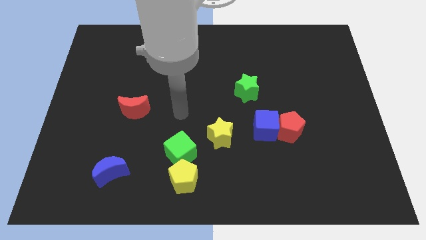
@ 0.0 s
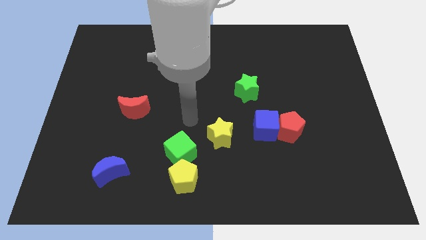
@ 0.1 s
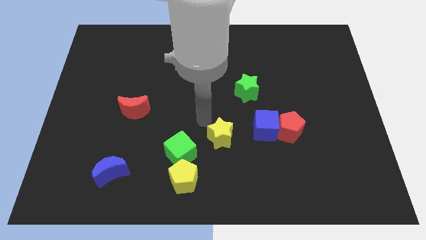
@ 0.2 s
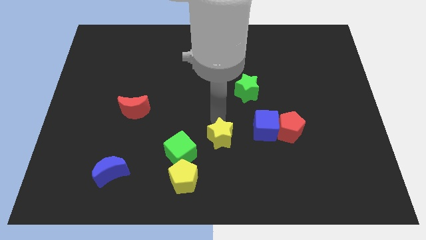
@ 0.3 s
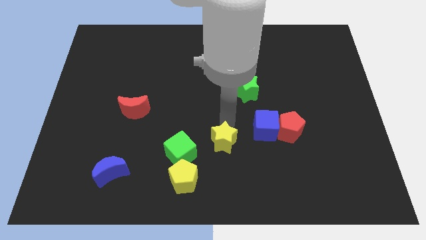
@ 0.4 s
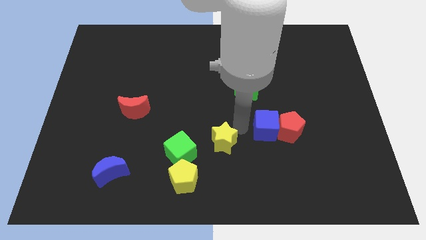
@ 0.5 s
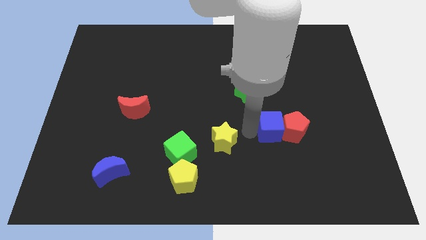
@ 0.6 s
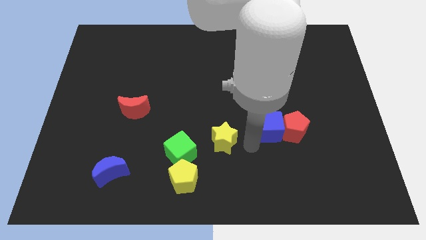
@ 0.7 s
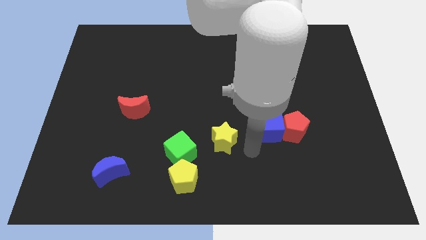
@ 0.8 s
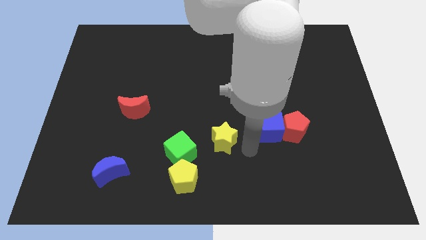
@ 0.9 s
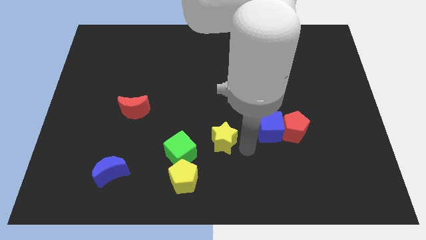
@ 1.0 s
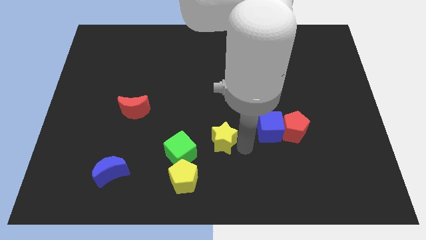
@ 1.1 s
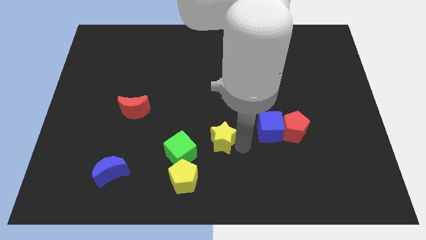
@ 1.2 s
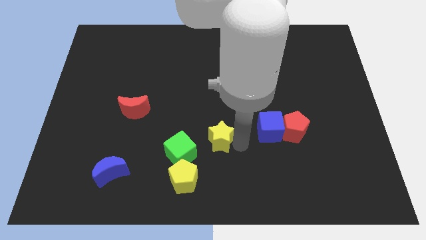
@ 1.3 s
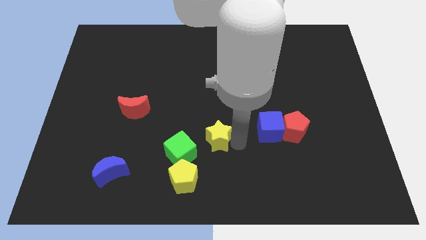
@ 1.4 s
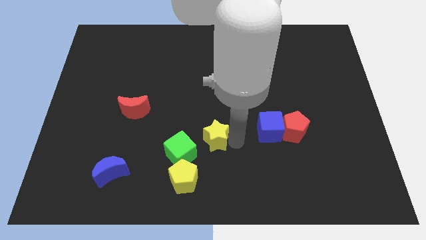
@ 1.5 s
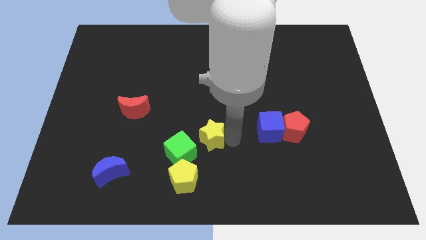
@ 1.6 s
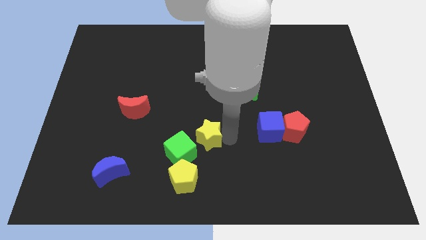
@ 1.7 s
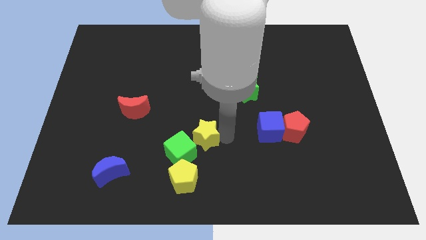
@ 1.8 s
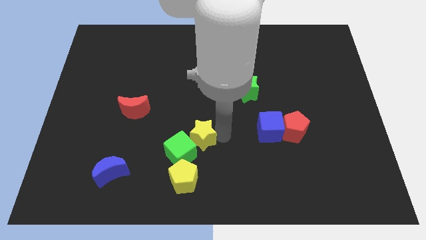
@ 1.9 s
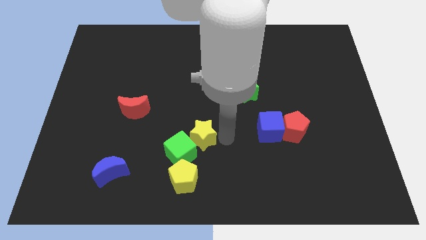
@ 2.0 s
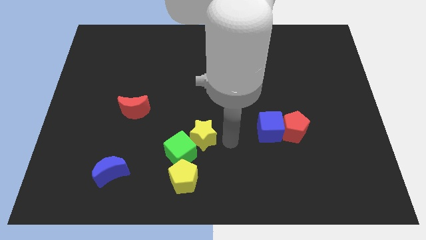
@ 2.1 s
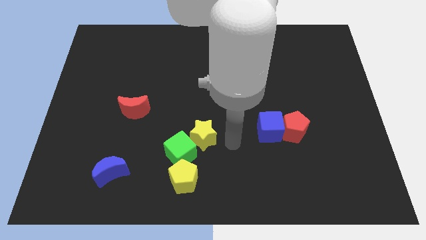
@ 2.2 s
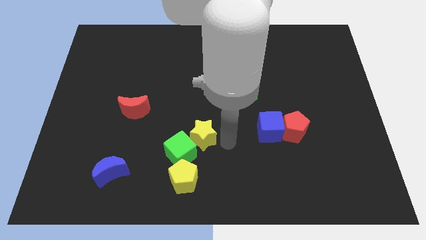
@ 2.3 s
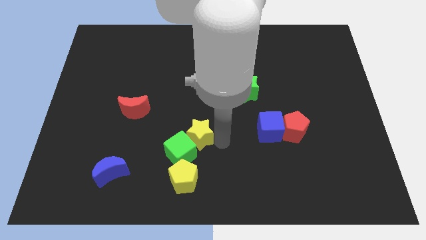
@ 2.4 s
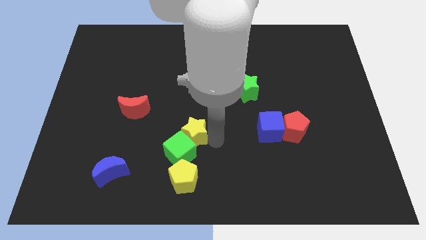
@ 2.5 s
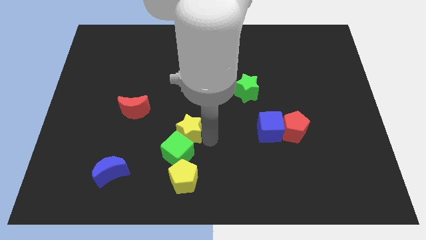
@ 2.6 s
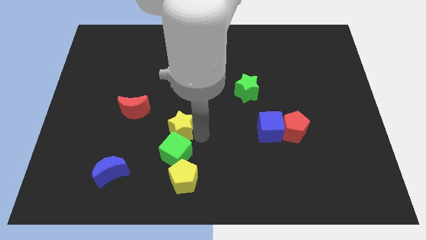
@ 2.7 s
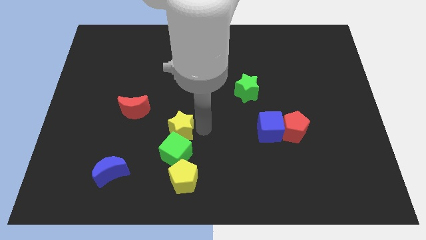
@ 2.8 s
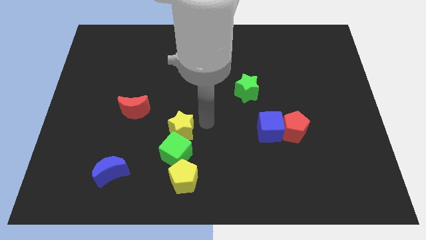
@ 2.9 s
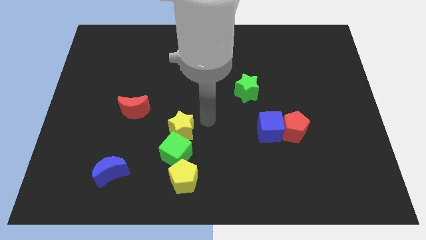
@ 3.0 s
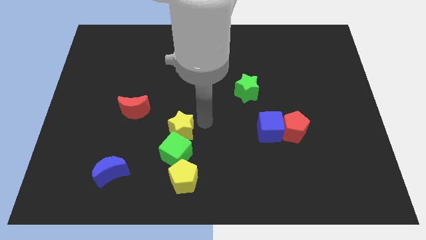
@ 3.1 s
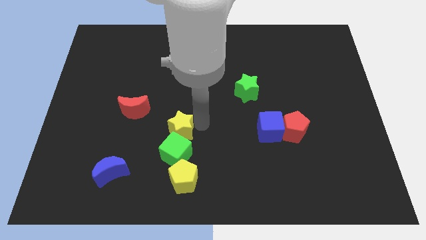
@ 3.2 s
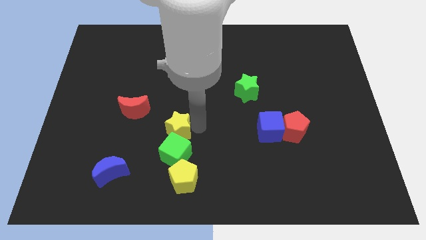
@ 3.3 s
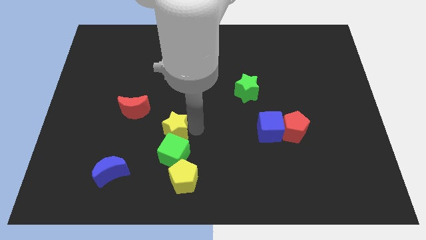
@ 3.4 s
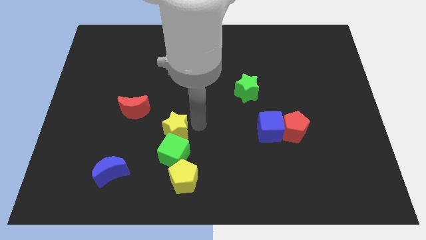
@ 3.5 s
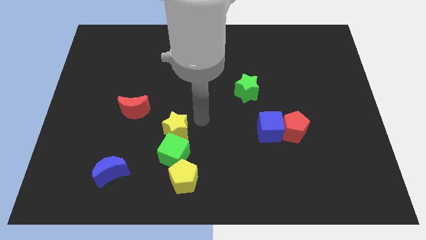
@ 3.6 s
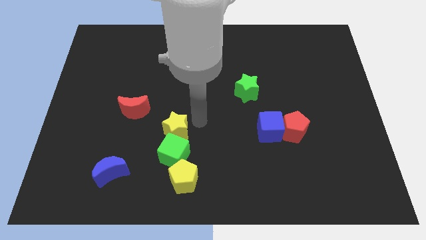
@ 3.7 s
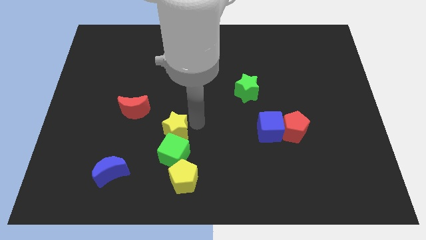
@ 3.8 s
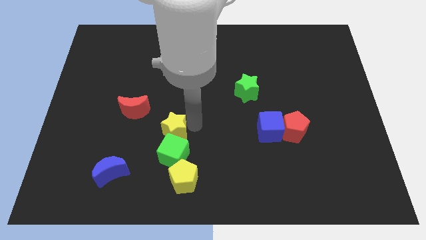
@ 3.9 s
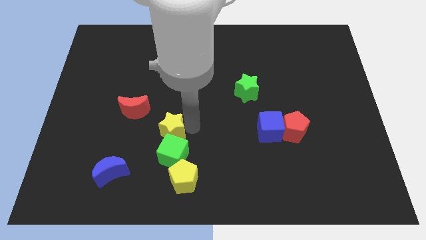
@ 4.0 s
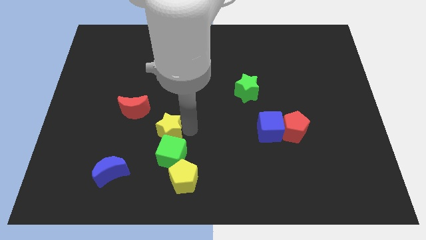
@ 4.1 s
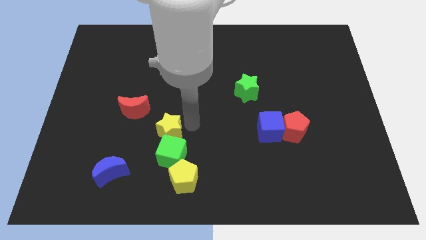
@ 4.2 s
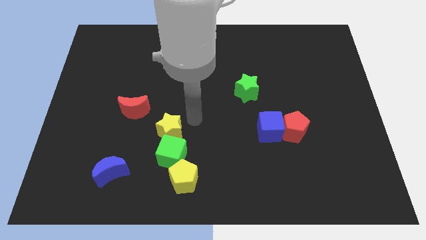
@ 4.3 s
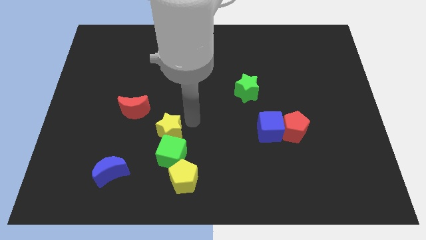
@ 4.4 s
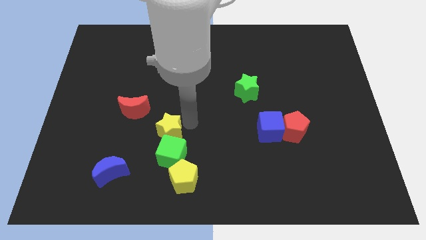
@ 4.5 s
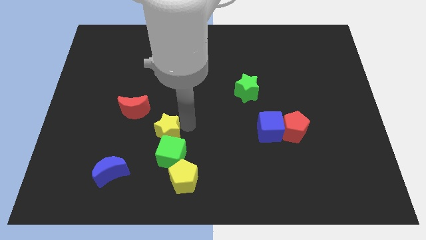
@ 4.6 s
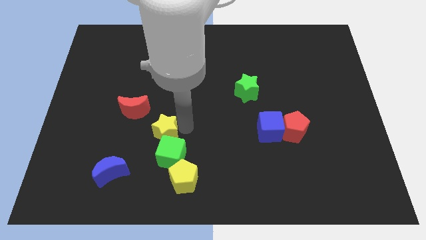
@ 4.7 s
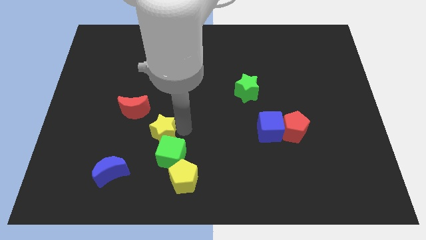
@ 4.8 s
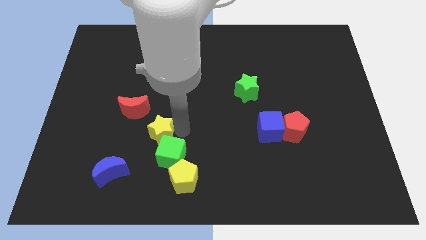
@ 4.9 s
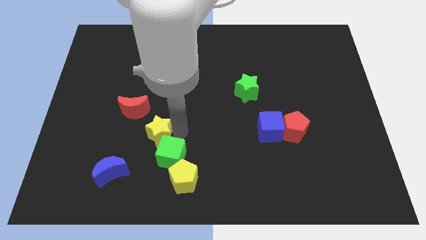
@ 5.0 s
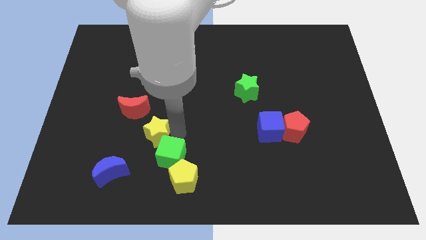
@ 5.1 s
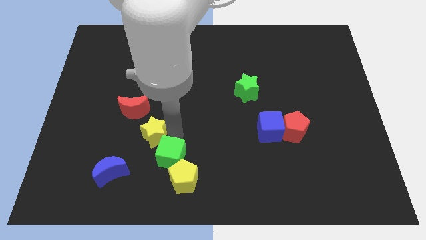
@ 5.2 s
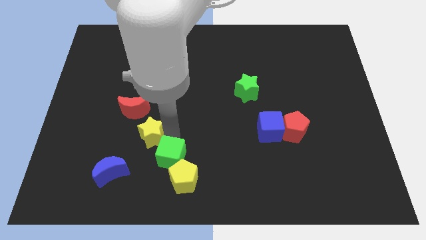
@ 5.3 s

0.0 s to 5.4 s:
slide the yellow star to the bottom of the red moon

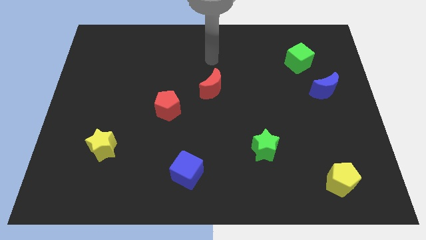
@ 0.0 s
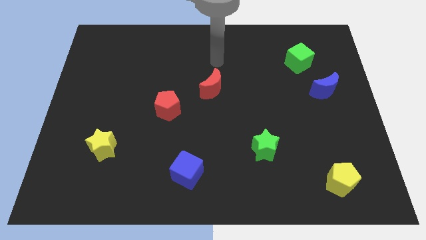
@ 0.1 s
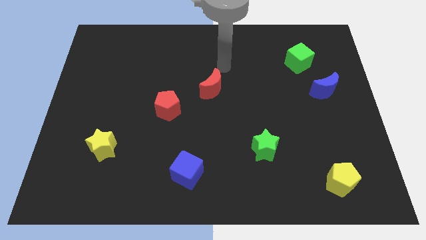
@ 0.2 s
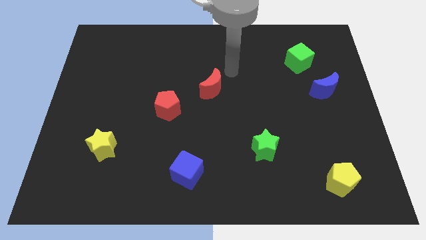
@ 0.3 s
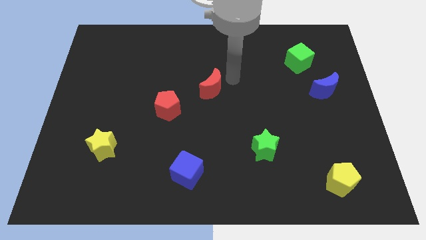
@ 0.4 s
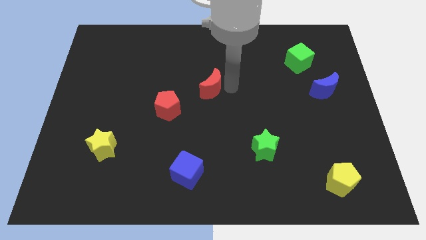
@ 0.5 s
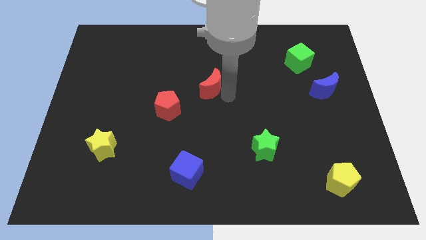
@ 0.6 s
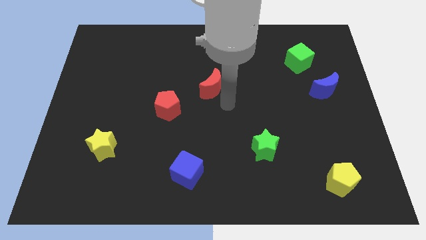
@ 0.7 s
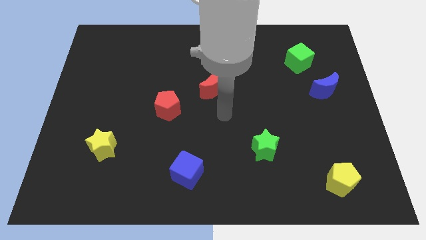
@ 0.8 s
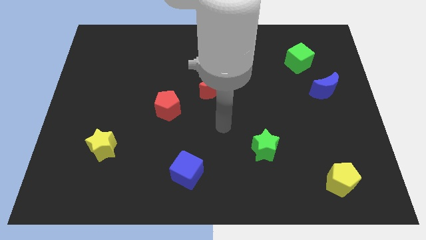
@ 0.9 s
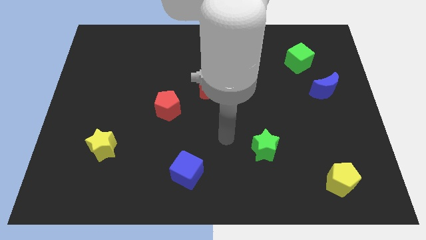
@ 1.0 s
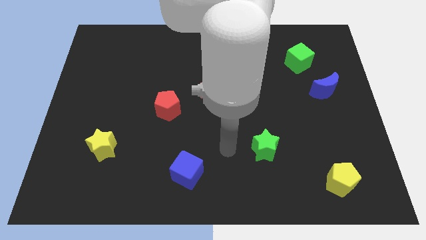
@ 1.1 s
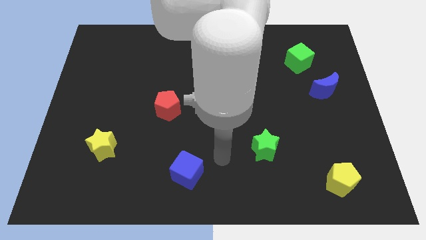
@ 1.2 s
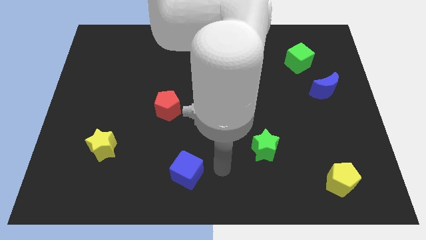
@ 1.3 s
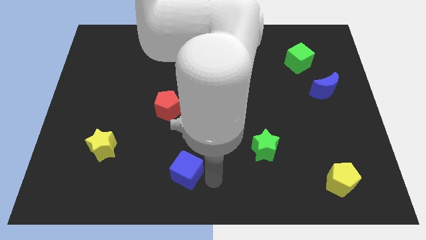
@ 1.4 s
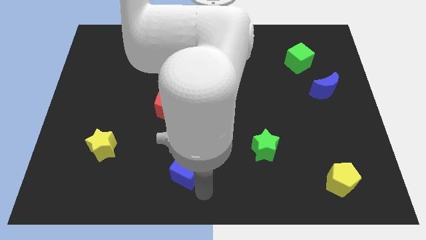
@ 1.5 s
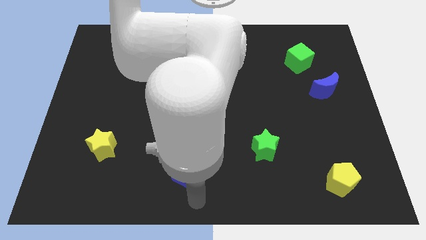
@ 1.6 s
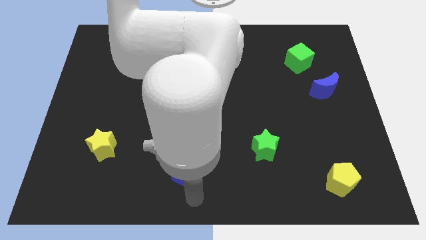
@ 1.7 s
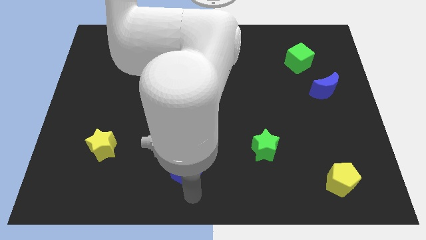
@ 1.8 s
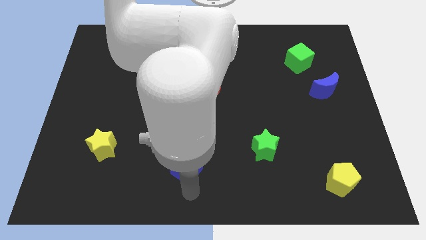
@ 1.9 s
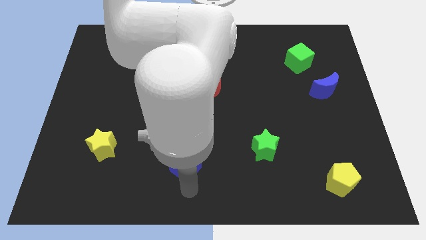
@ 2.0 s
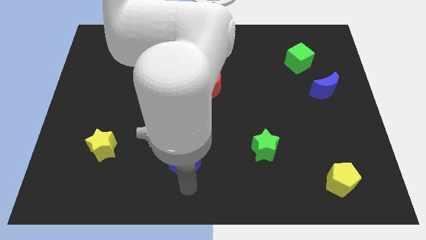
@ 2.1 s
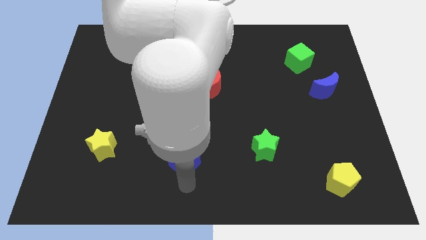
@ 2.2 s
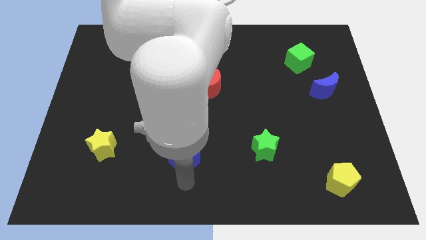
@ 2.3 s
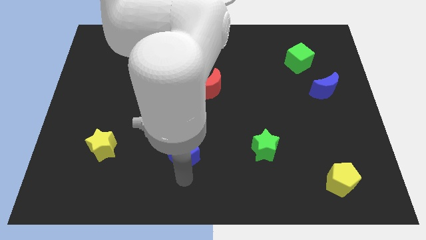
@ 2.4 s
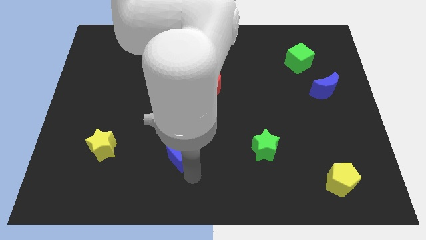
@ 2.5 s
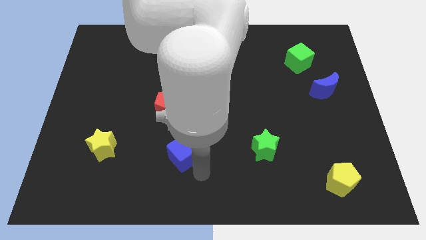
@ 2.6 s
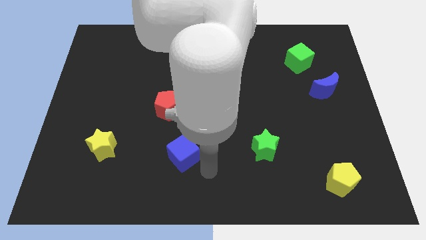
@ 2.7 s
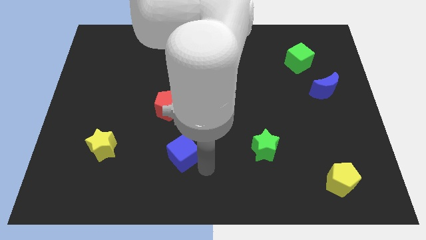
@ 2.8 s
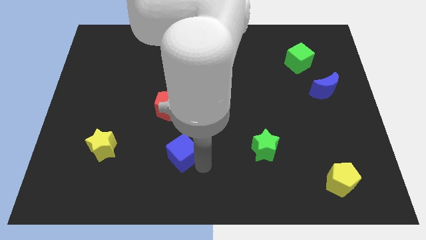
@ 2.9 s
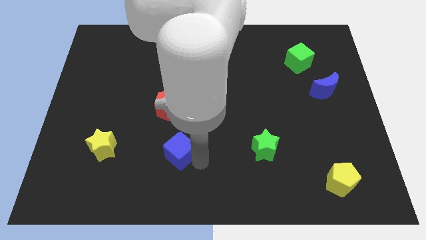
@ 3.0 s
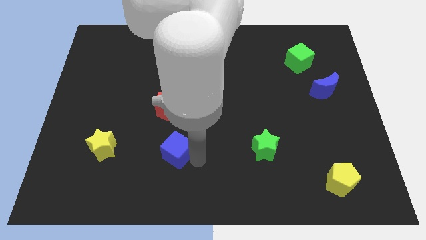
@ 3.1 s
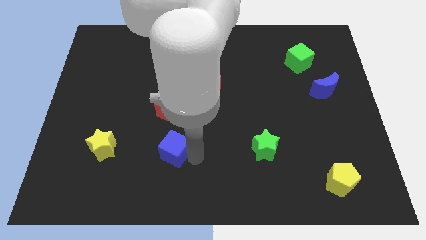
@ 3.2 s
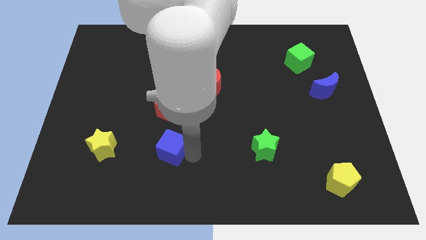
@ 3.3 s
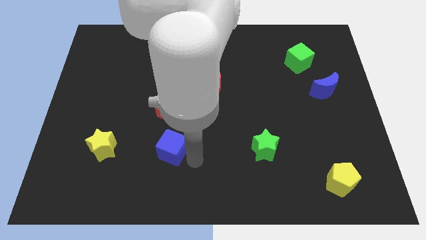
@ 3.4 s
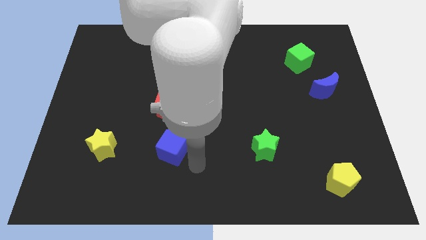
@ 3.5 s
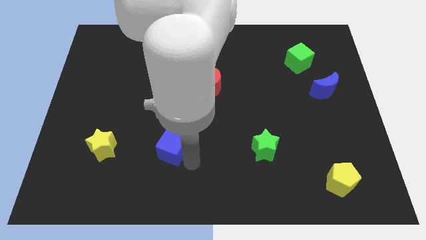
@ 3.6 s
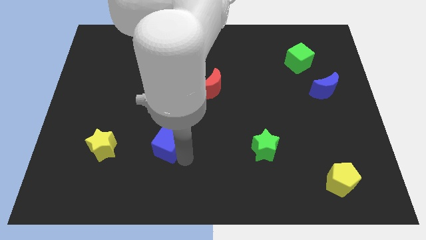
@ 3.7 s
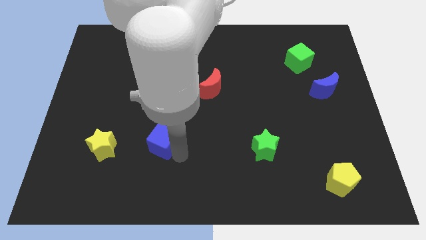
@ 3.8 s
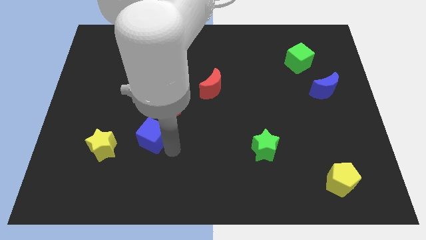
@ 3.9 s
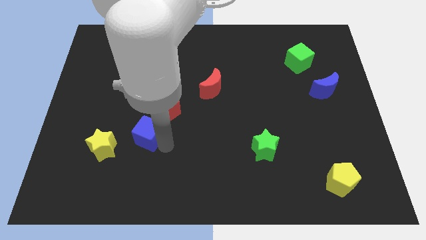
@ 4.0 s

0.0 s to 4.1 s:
slide the blue cube diagonally up and to the right of the yellow star
